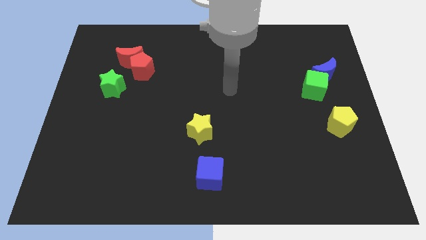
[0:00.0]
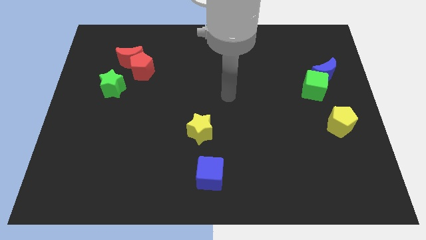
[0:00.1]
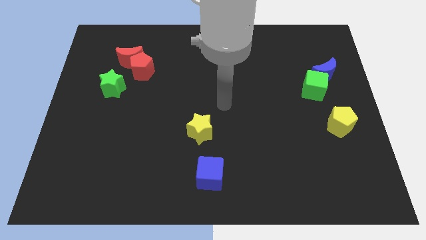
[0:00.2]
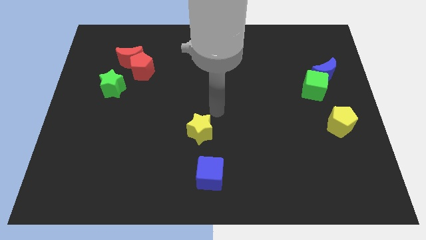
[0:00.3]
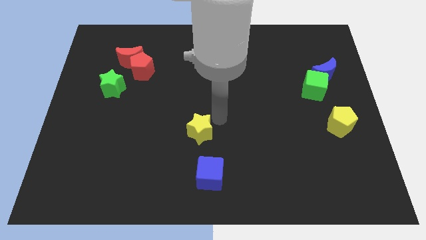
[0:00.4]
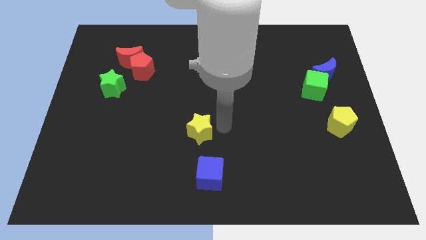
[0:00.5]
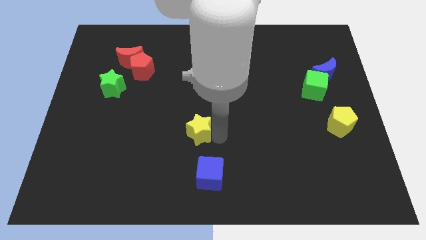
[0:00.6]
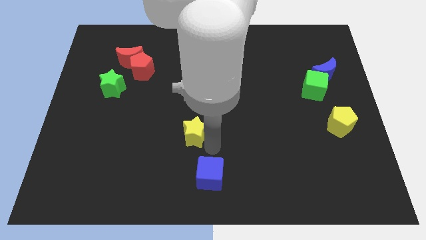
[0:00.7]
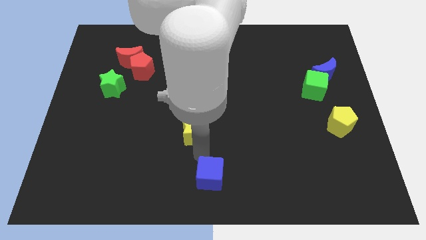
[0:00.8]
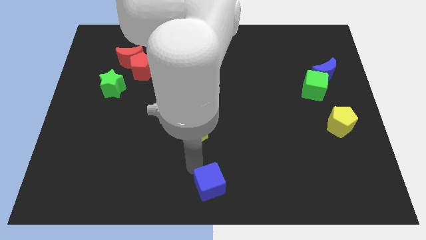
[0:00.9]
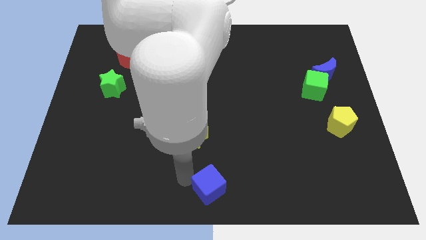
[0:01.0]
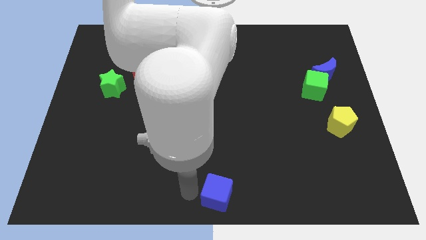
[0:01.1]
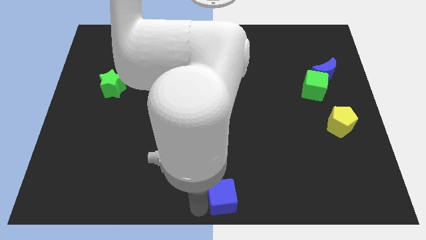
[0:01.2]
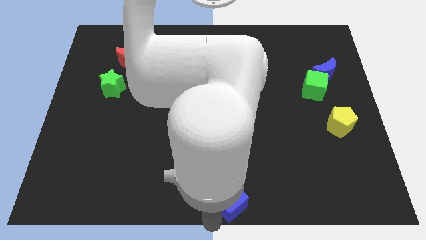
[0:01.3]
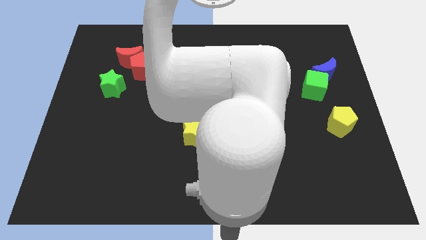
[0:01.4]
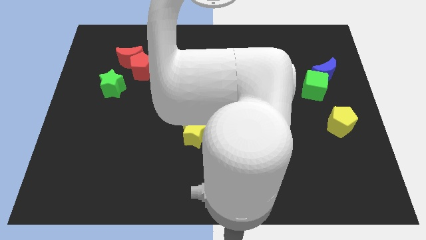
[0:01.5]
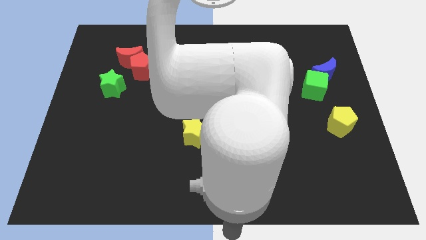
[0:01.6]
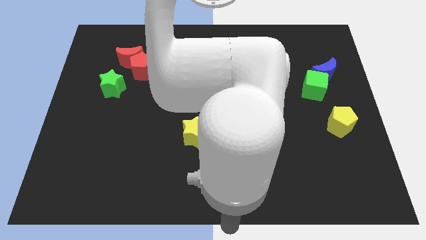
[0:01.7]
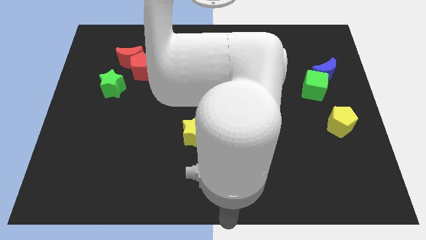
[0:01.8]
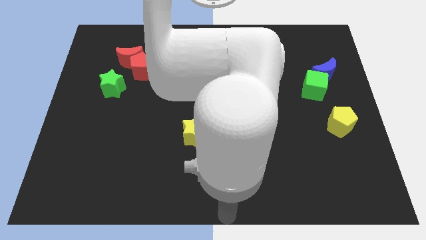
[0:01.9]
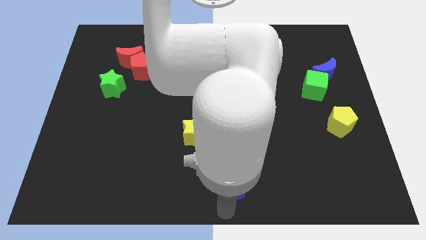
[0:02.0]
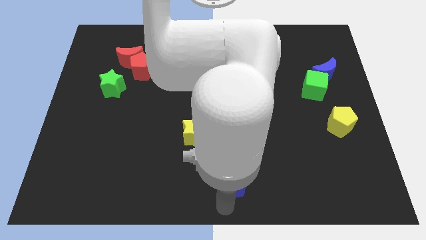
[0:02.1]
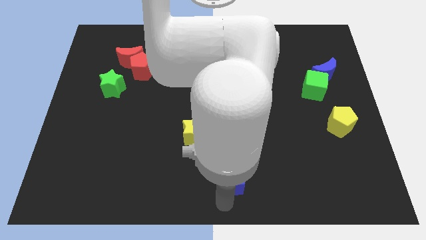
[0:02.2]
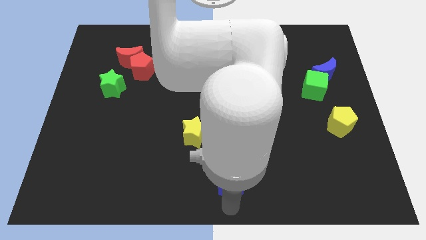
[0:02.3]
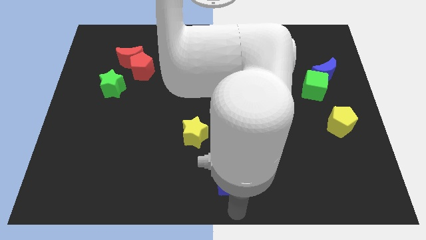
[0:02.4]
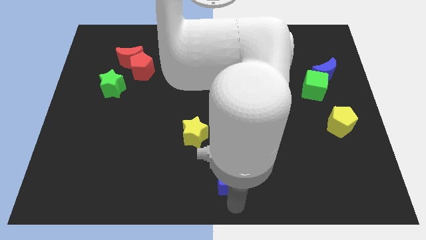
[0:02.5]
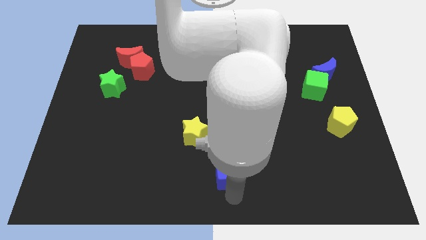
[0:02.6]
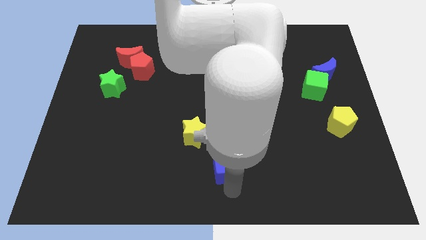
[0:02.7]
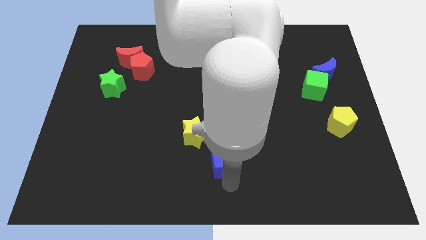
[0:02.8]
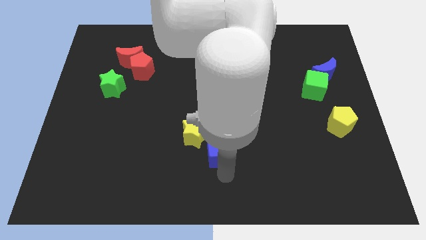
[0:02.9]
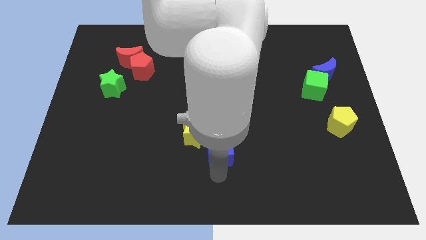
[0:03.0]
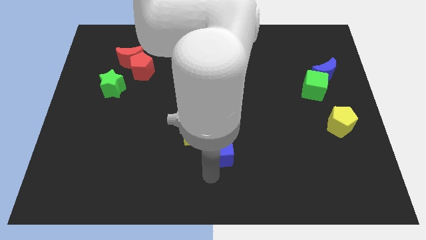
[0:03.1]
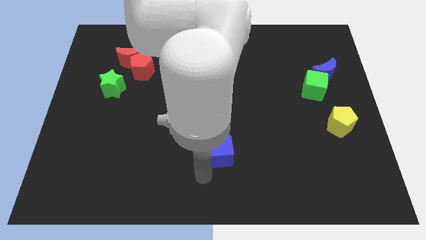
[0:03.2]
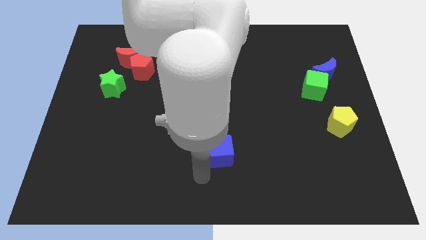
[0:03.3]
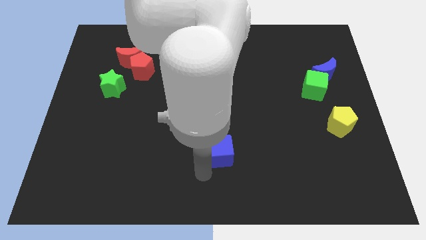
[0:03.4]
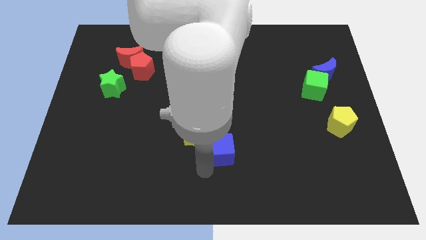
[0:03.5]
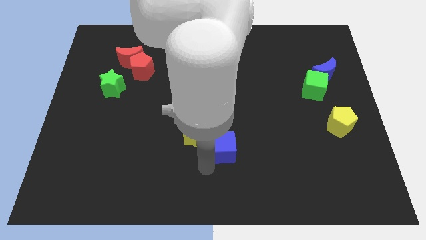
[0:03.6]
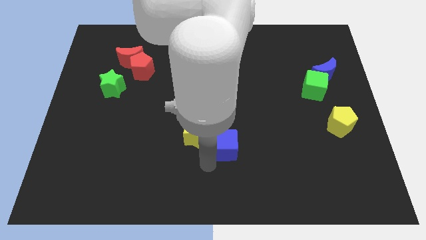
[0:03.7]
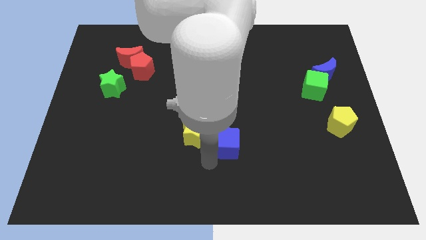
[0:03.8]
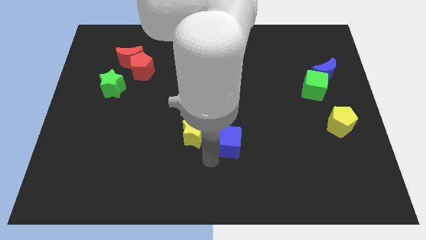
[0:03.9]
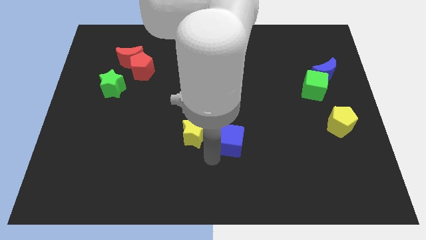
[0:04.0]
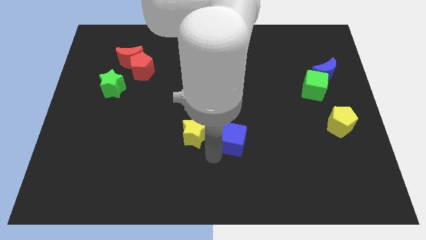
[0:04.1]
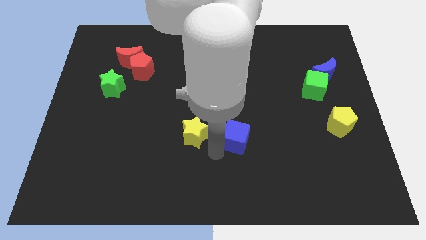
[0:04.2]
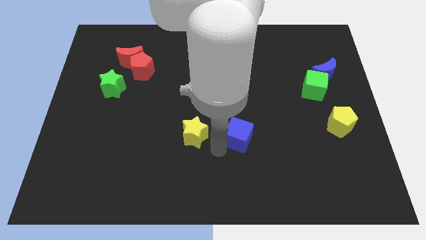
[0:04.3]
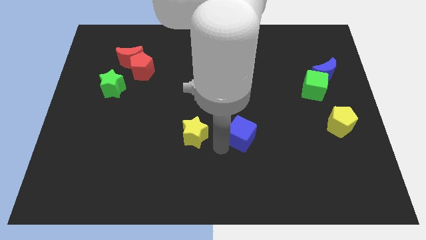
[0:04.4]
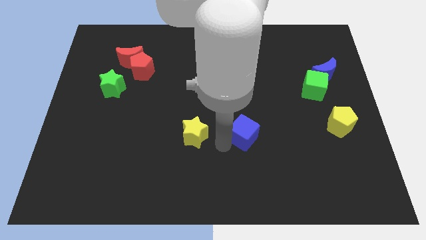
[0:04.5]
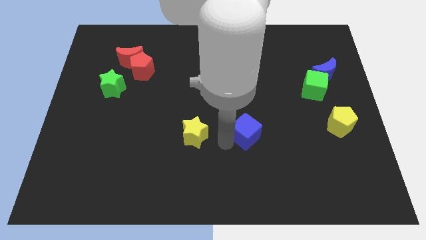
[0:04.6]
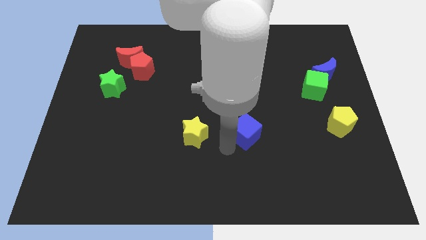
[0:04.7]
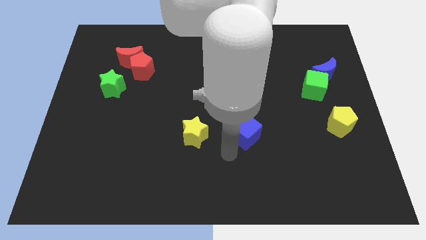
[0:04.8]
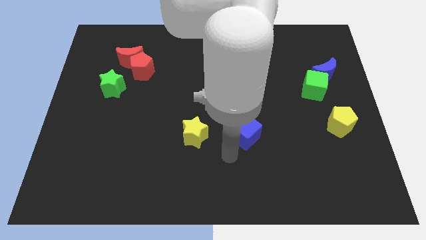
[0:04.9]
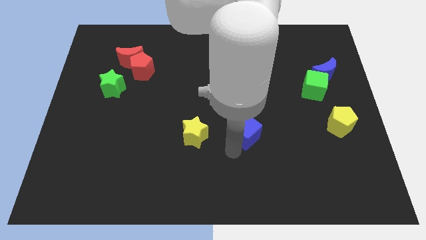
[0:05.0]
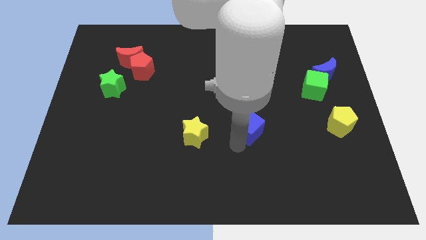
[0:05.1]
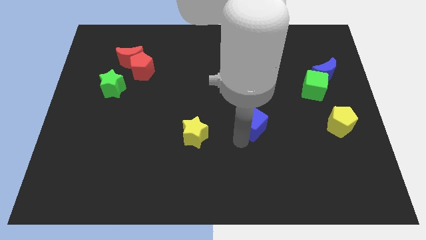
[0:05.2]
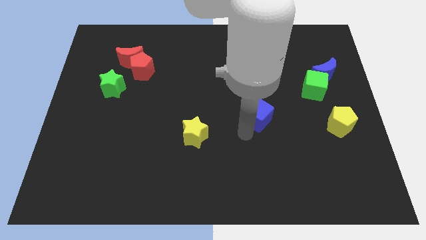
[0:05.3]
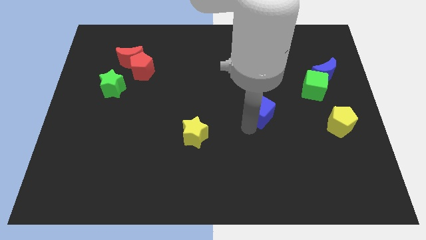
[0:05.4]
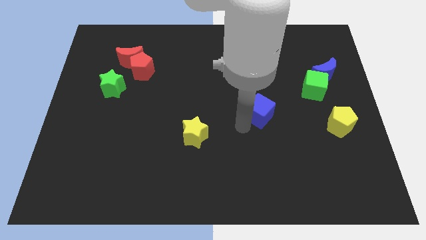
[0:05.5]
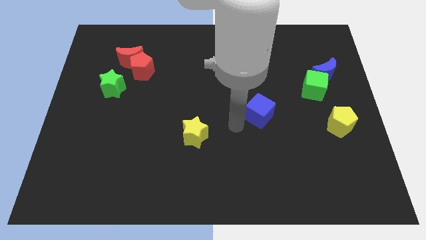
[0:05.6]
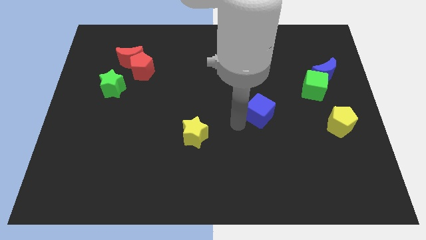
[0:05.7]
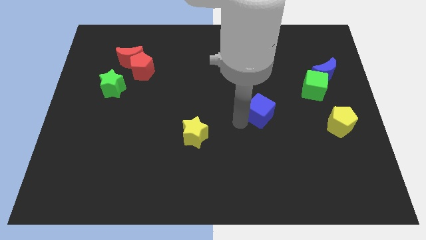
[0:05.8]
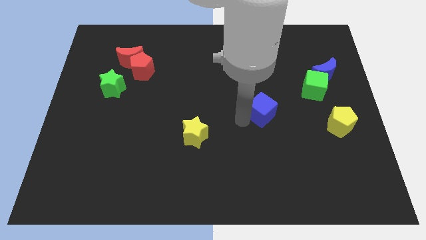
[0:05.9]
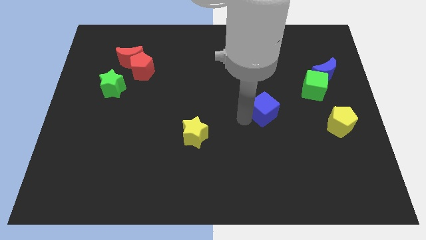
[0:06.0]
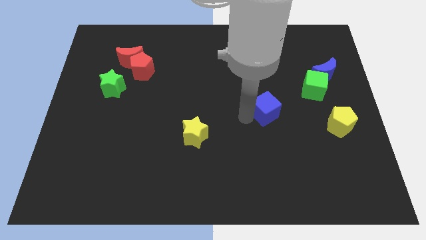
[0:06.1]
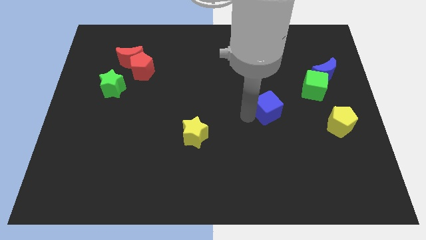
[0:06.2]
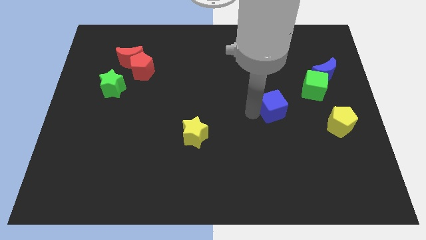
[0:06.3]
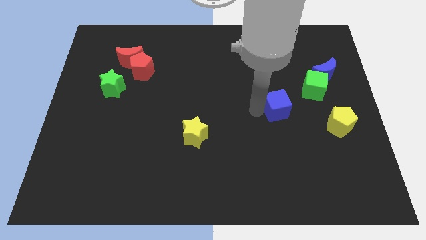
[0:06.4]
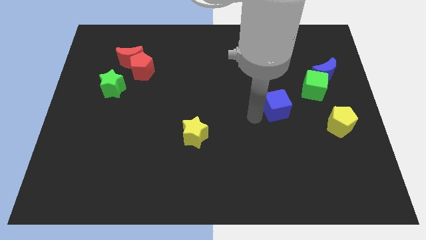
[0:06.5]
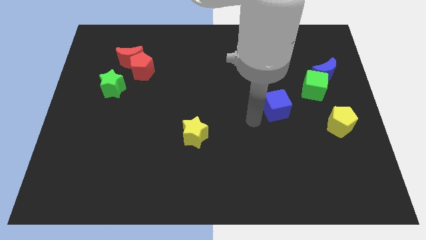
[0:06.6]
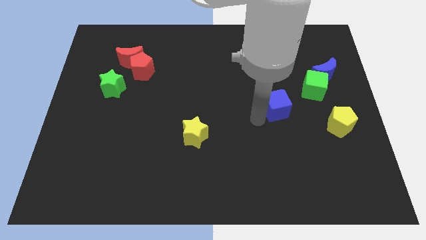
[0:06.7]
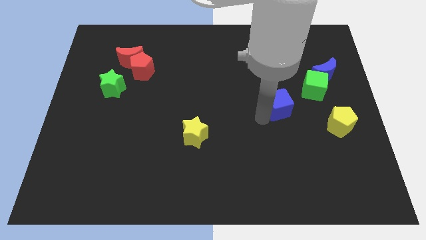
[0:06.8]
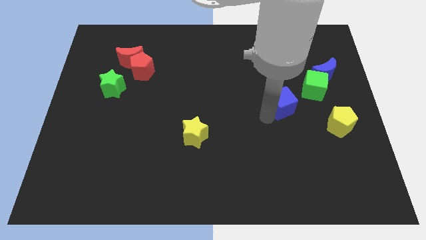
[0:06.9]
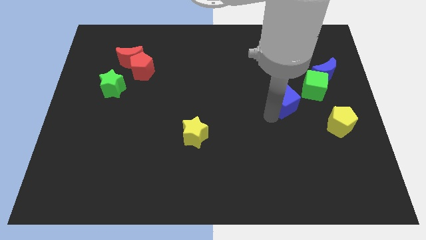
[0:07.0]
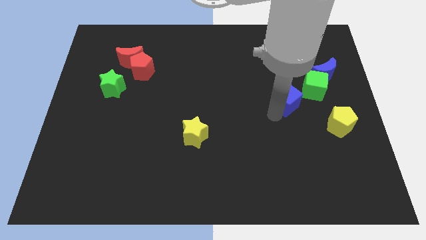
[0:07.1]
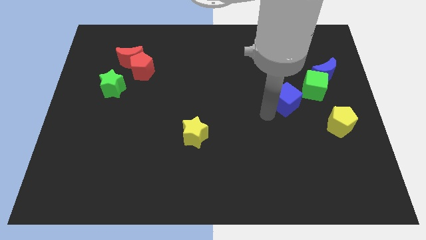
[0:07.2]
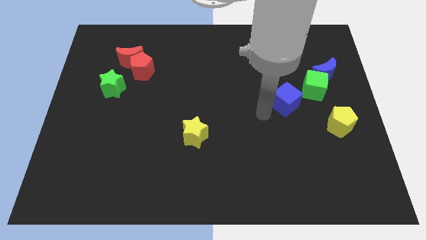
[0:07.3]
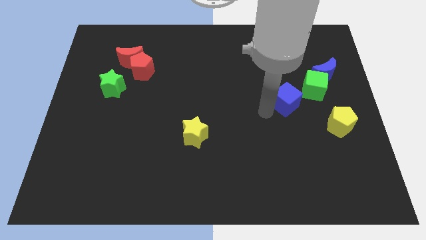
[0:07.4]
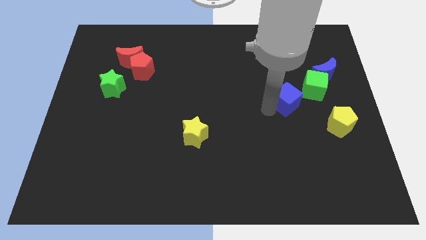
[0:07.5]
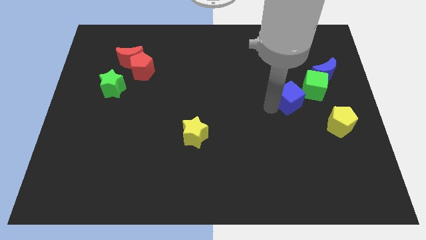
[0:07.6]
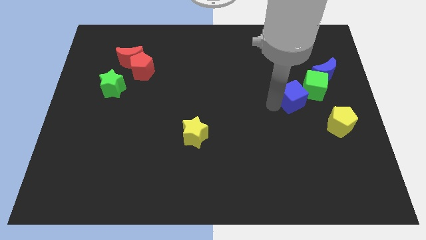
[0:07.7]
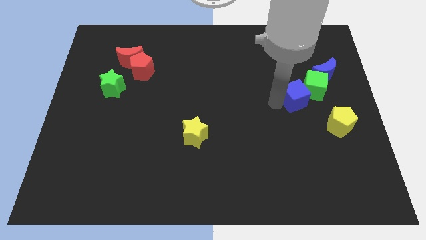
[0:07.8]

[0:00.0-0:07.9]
slide the blue cube next to the green cube
